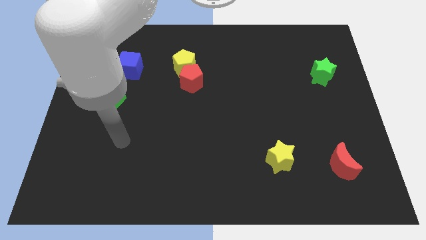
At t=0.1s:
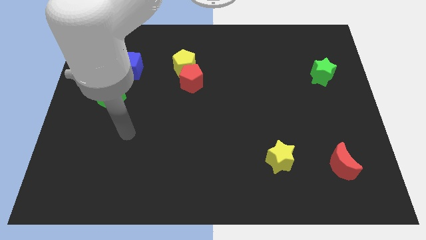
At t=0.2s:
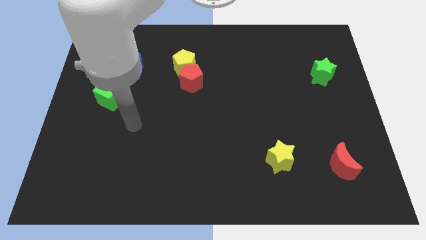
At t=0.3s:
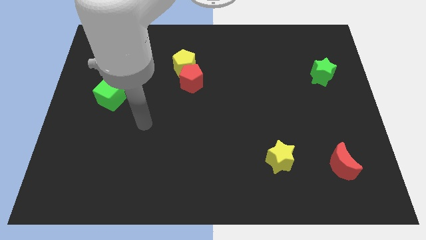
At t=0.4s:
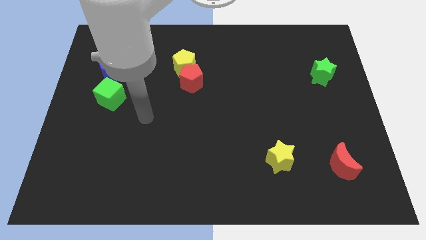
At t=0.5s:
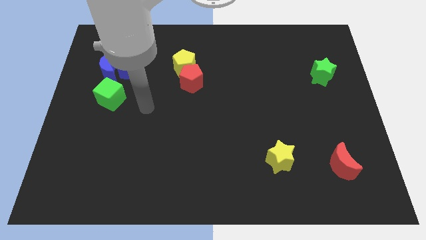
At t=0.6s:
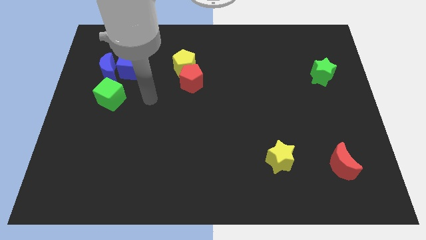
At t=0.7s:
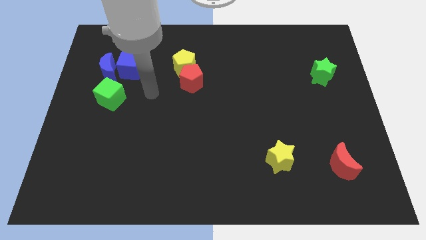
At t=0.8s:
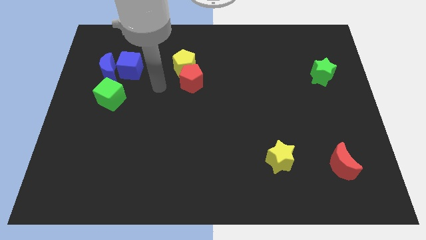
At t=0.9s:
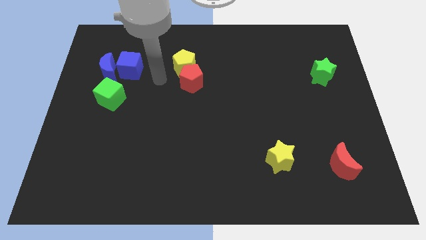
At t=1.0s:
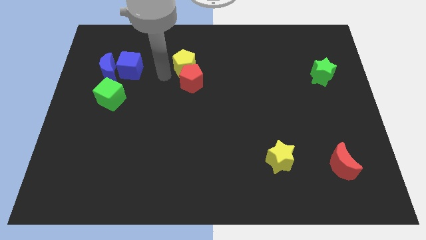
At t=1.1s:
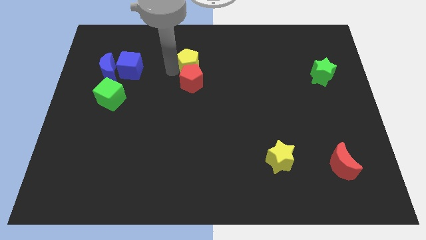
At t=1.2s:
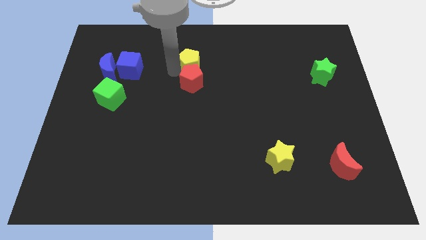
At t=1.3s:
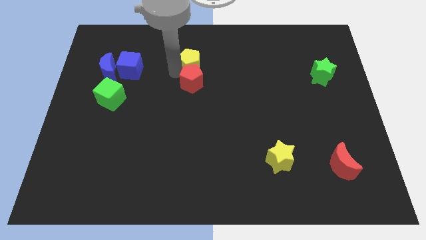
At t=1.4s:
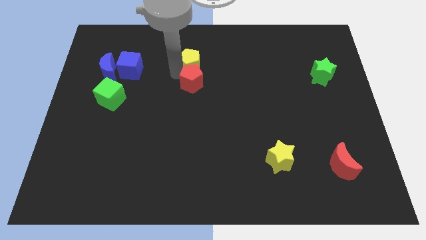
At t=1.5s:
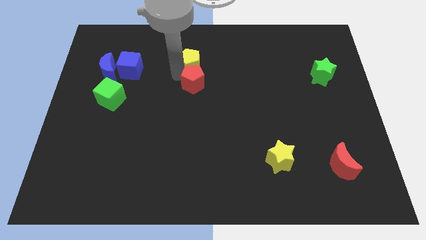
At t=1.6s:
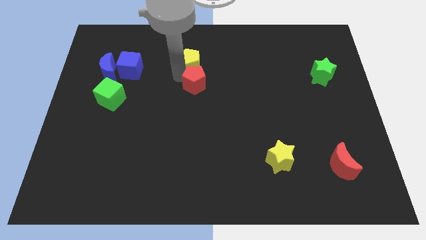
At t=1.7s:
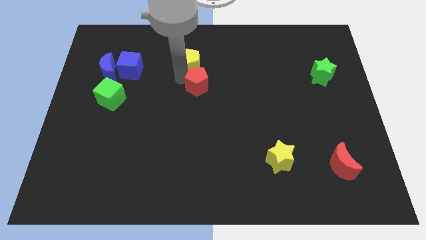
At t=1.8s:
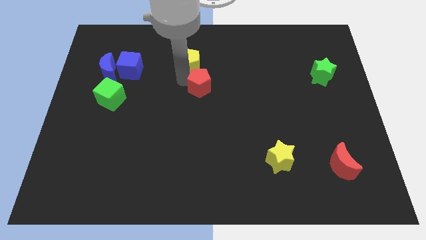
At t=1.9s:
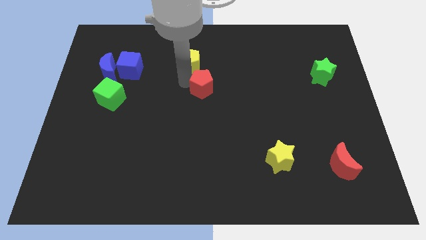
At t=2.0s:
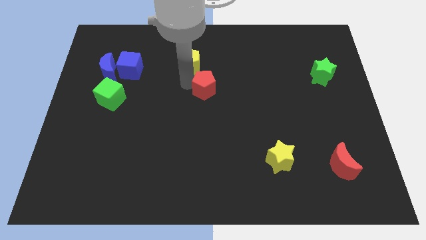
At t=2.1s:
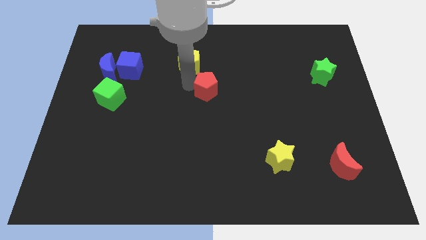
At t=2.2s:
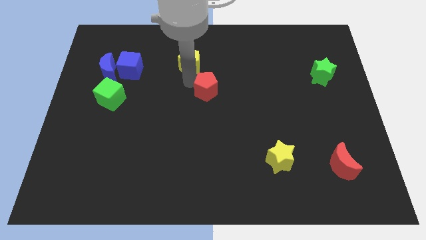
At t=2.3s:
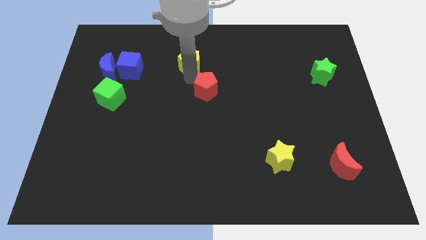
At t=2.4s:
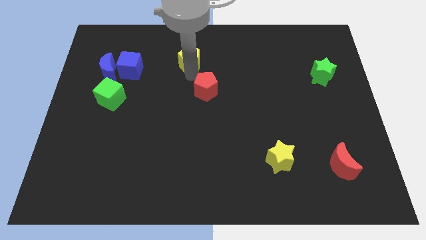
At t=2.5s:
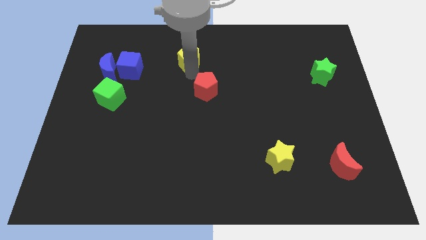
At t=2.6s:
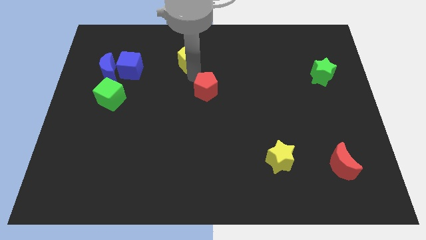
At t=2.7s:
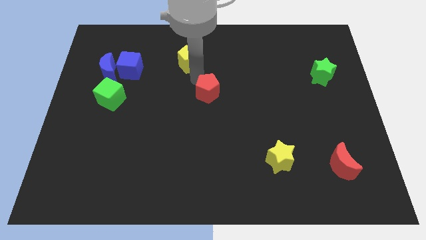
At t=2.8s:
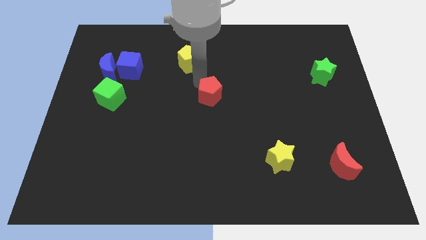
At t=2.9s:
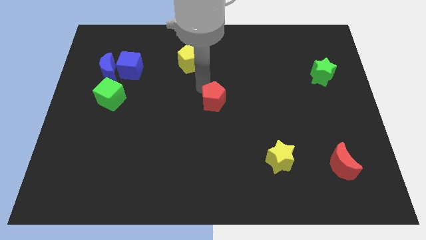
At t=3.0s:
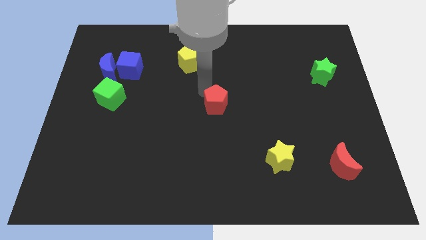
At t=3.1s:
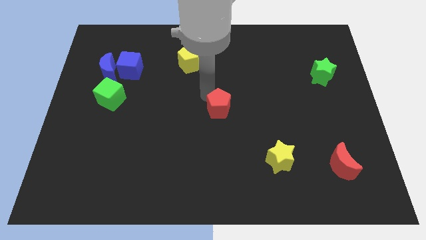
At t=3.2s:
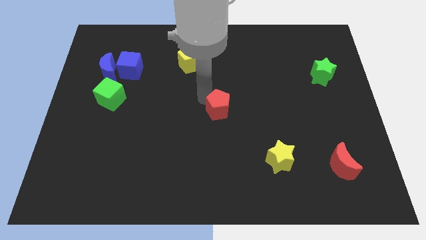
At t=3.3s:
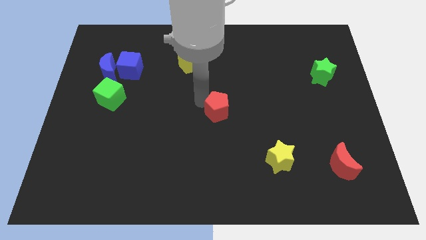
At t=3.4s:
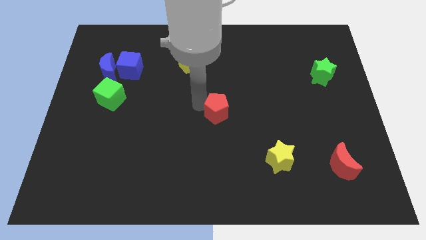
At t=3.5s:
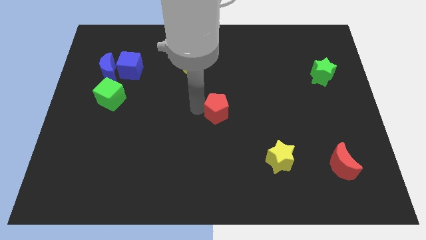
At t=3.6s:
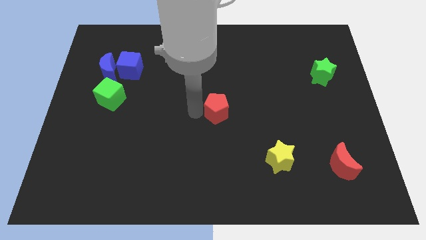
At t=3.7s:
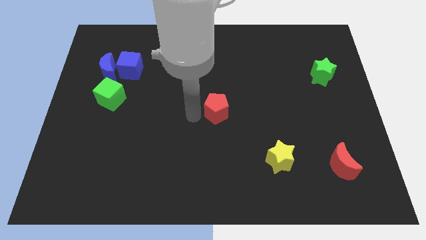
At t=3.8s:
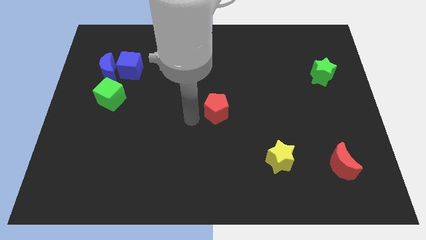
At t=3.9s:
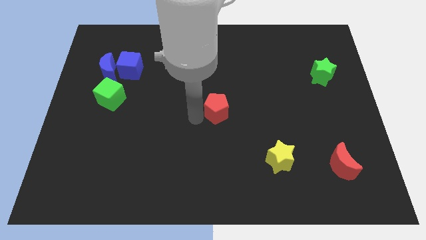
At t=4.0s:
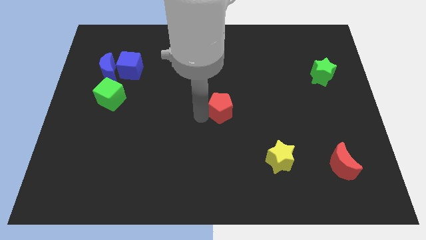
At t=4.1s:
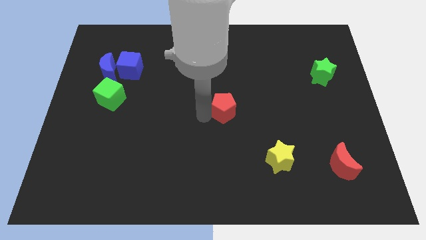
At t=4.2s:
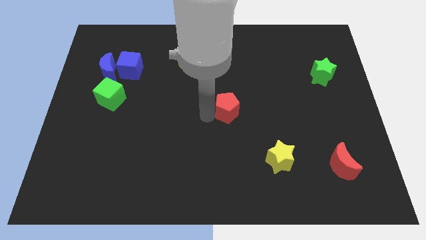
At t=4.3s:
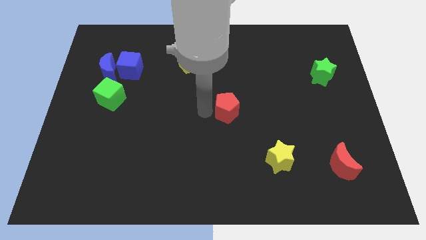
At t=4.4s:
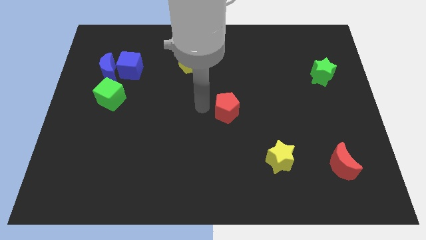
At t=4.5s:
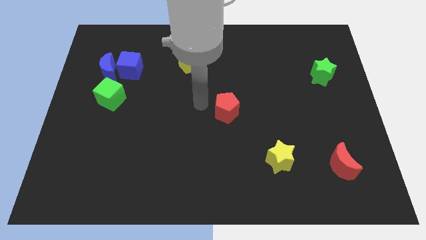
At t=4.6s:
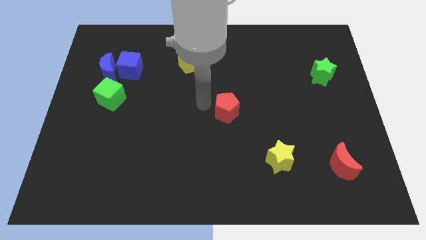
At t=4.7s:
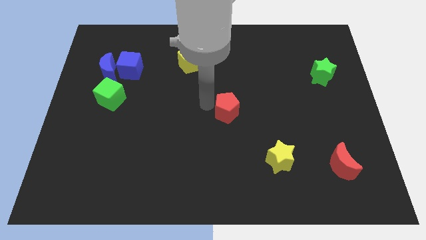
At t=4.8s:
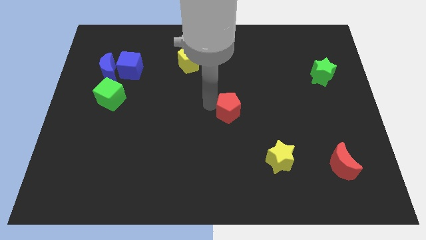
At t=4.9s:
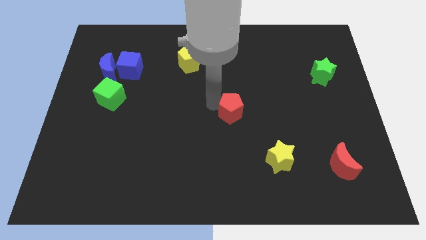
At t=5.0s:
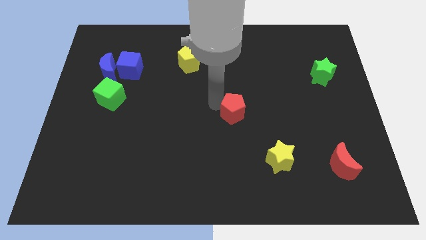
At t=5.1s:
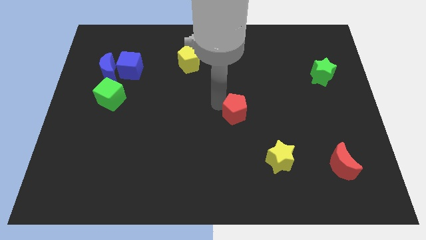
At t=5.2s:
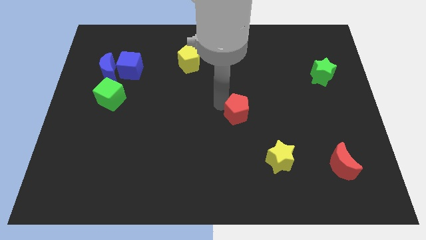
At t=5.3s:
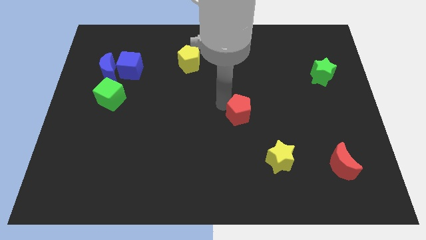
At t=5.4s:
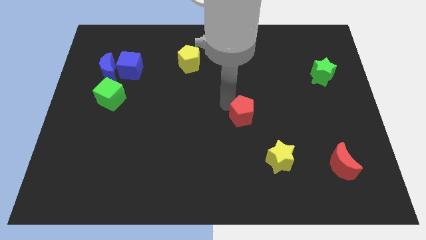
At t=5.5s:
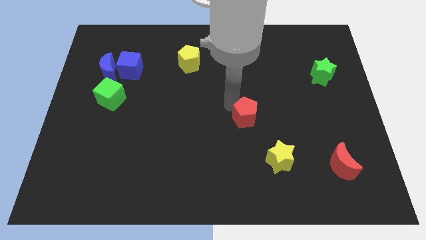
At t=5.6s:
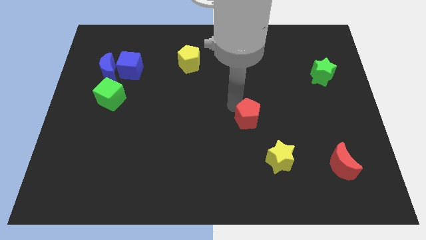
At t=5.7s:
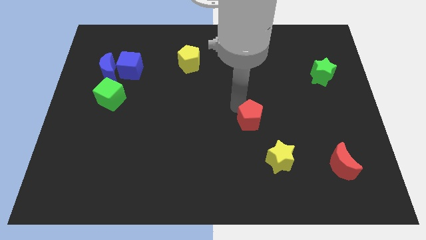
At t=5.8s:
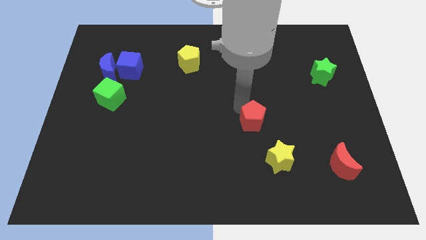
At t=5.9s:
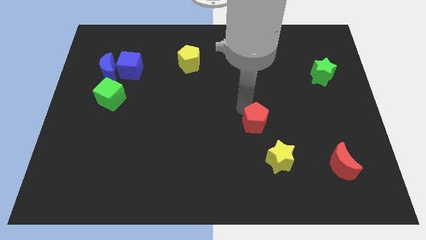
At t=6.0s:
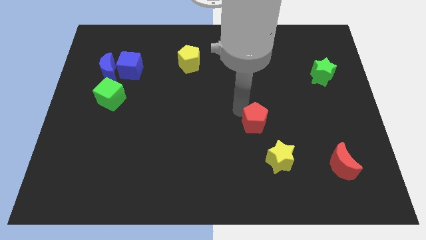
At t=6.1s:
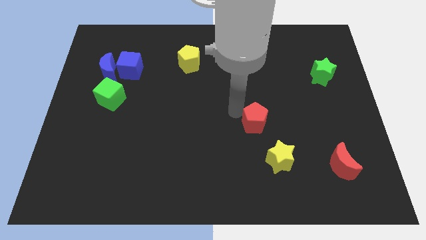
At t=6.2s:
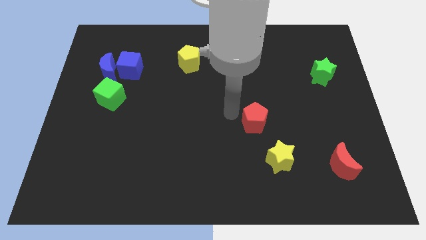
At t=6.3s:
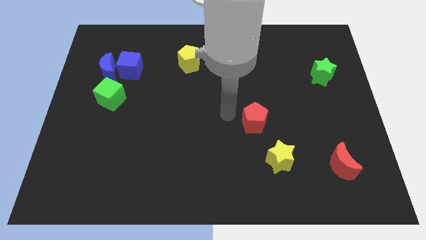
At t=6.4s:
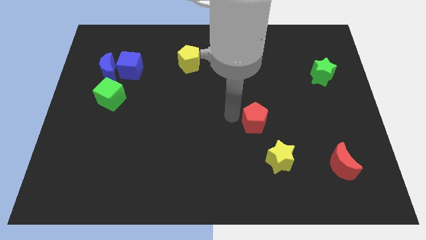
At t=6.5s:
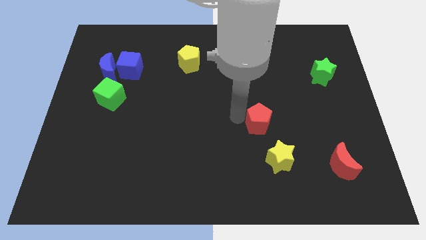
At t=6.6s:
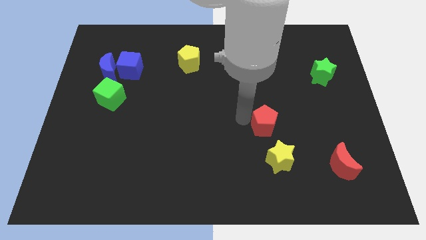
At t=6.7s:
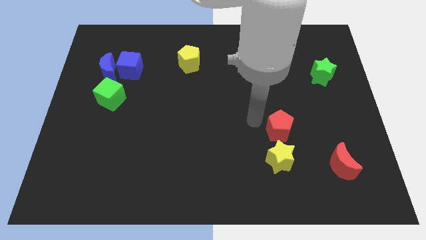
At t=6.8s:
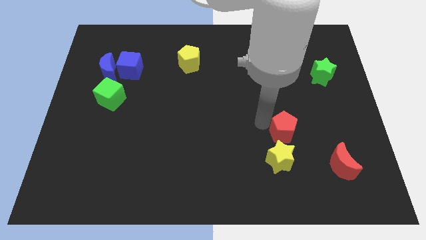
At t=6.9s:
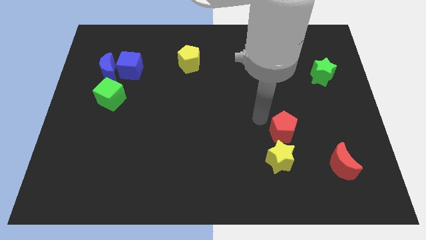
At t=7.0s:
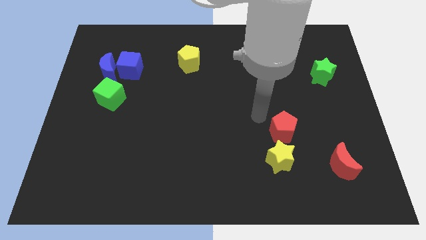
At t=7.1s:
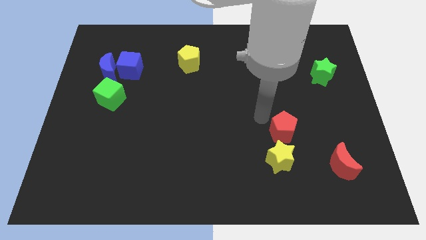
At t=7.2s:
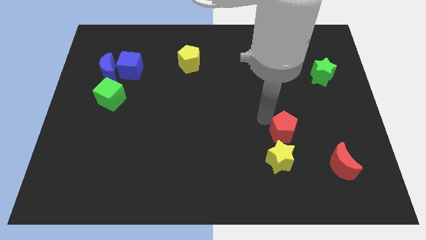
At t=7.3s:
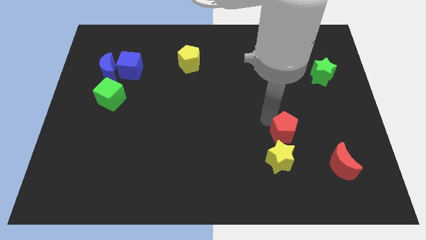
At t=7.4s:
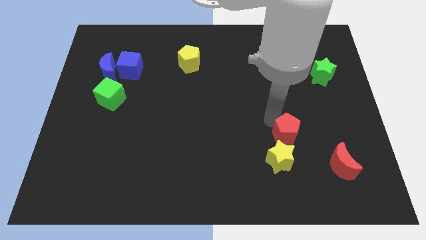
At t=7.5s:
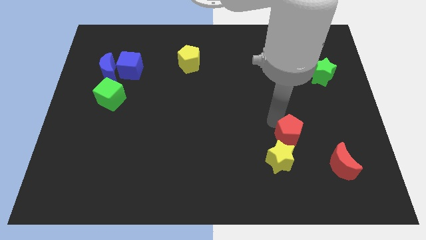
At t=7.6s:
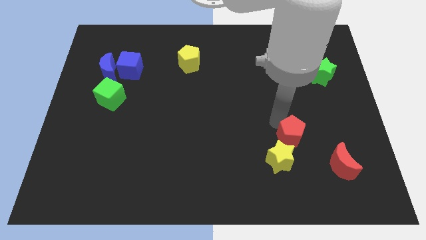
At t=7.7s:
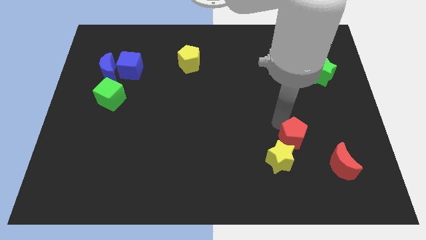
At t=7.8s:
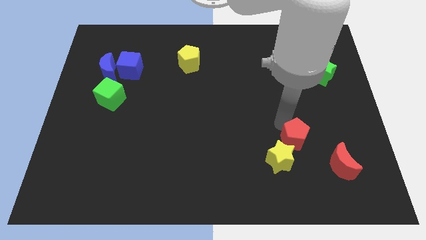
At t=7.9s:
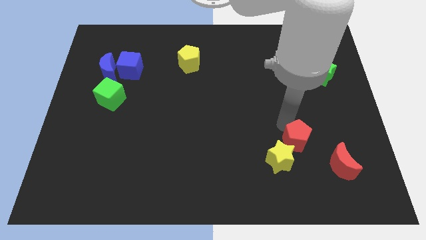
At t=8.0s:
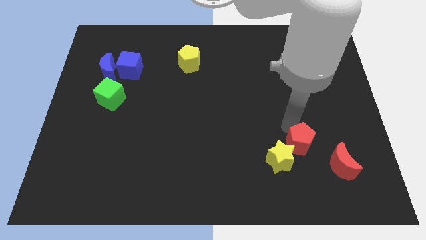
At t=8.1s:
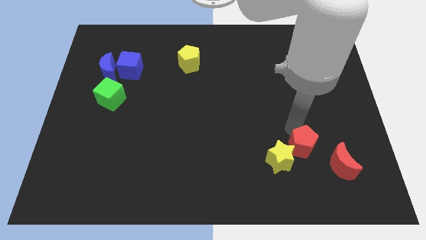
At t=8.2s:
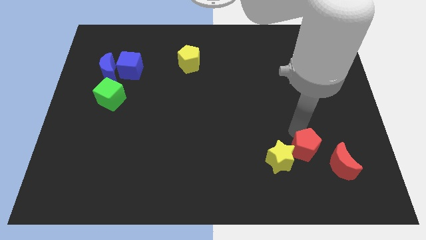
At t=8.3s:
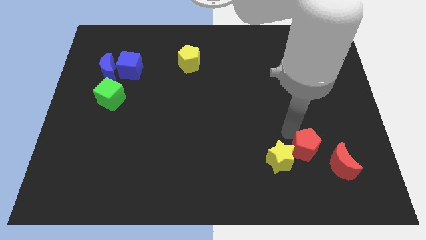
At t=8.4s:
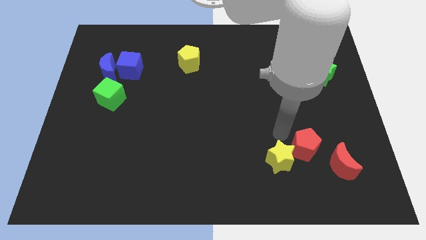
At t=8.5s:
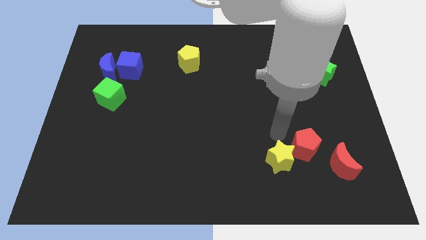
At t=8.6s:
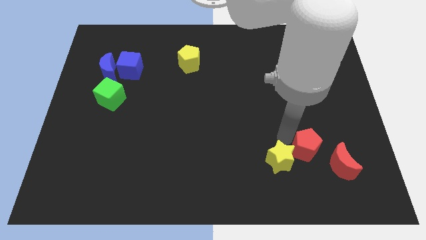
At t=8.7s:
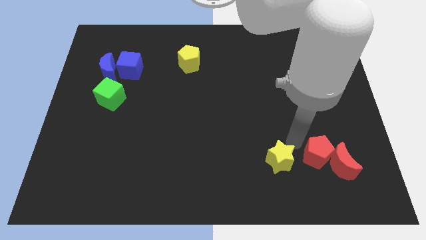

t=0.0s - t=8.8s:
push the red pentagon next to the red moon
